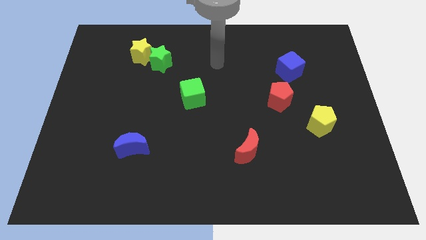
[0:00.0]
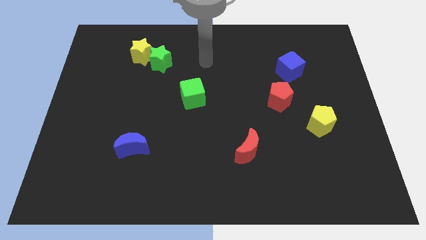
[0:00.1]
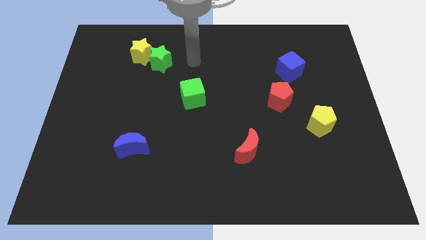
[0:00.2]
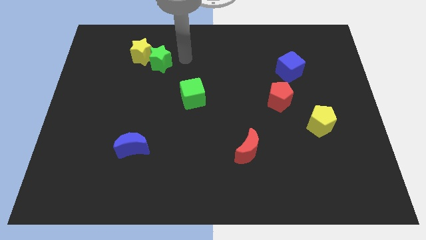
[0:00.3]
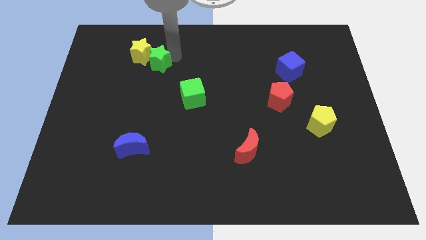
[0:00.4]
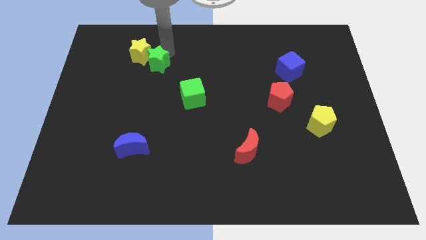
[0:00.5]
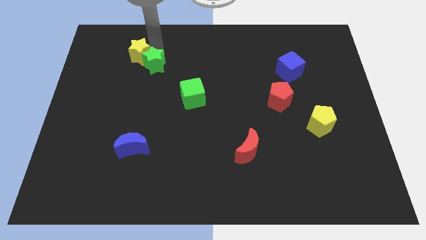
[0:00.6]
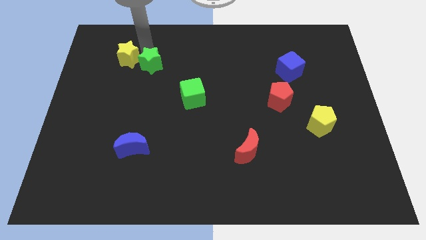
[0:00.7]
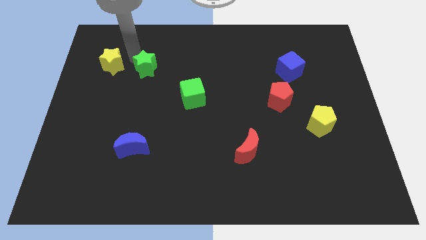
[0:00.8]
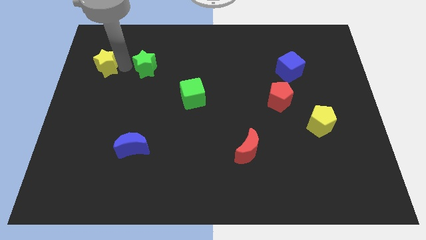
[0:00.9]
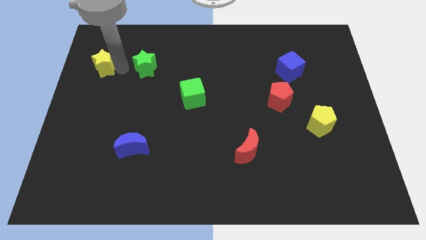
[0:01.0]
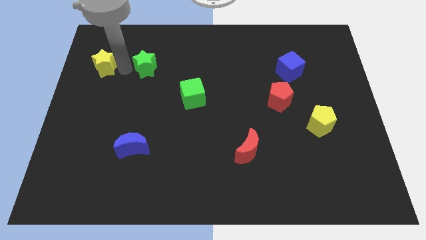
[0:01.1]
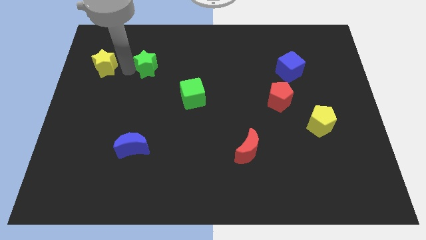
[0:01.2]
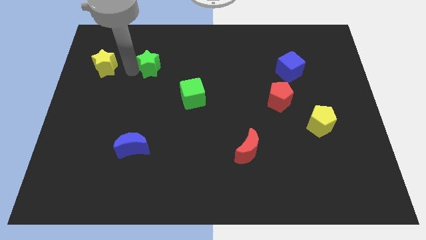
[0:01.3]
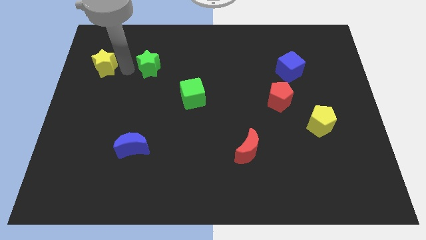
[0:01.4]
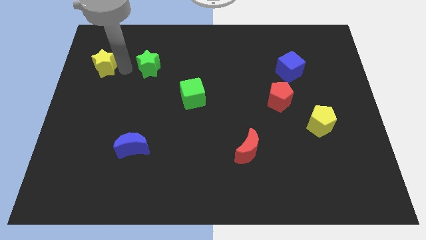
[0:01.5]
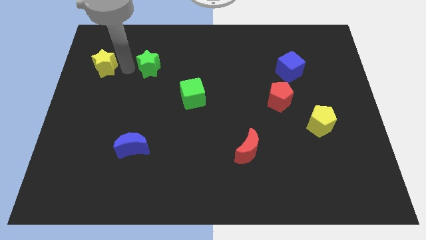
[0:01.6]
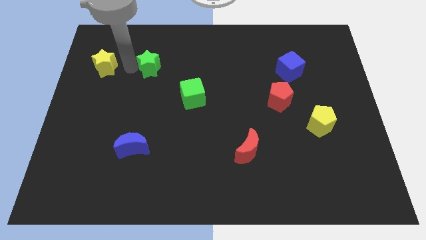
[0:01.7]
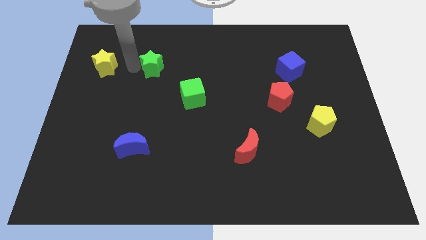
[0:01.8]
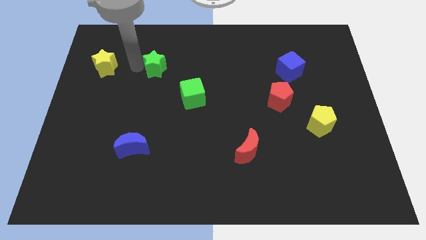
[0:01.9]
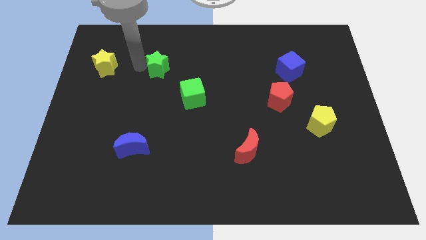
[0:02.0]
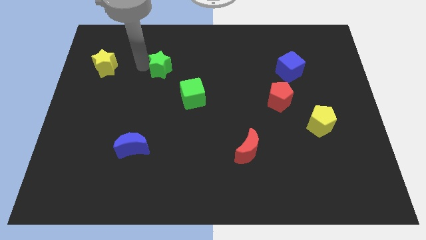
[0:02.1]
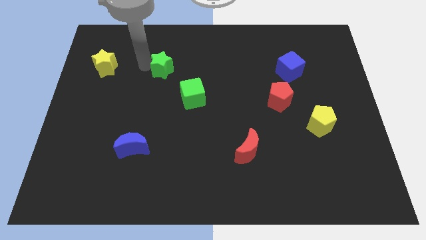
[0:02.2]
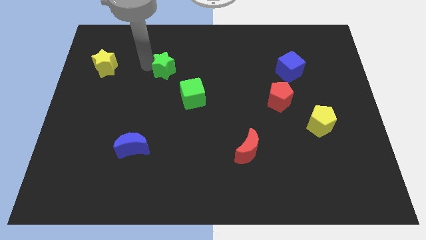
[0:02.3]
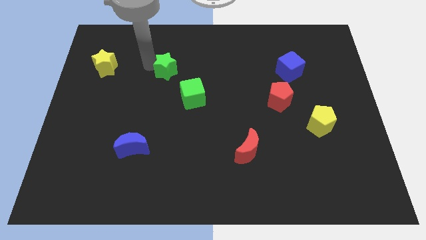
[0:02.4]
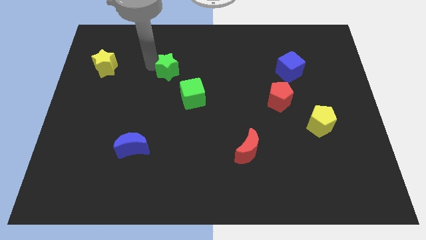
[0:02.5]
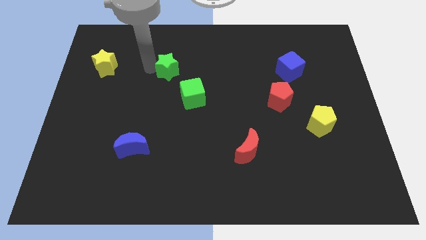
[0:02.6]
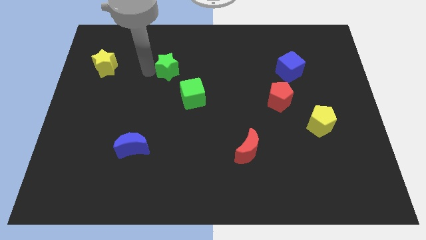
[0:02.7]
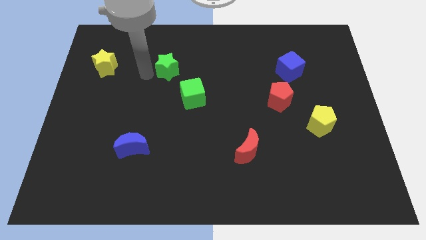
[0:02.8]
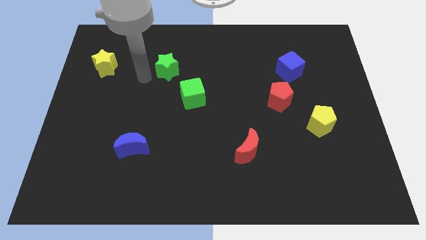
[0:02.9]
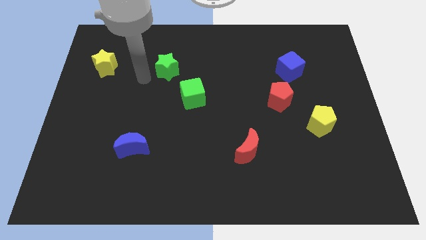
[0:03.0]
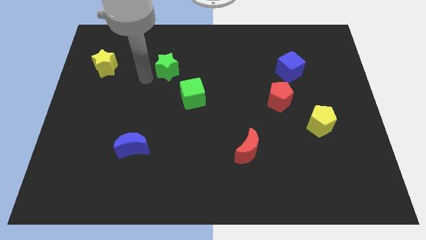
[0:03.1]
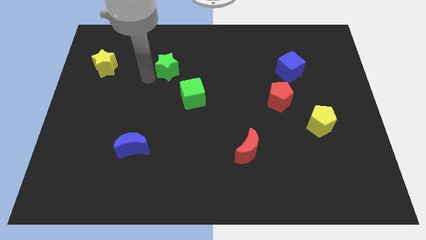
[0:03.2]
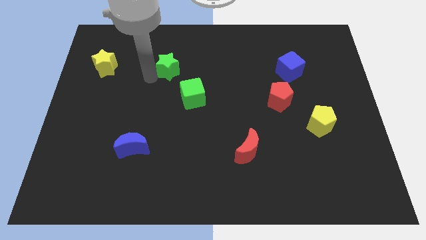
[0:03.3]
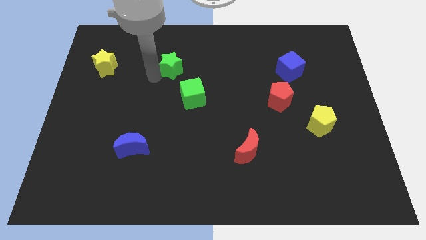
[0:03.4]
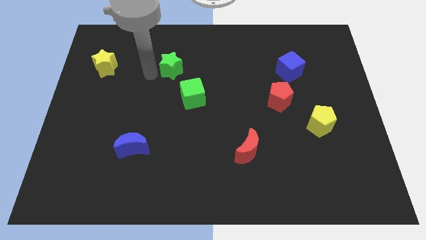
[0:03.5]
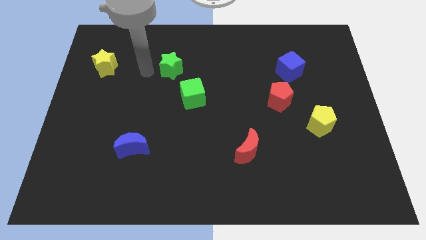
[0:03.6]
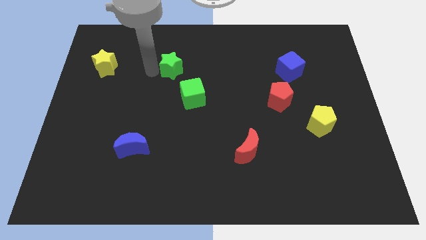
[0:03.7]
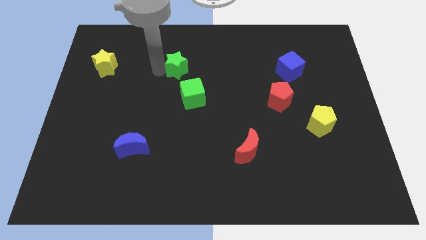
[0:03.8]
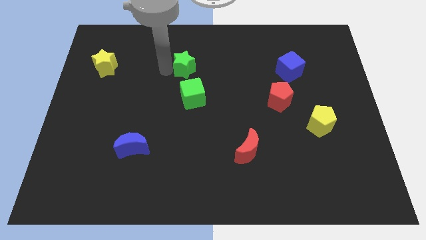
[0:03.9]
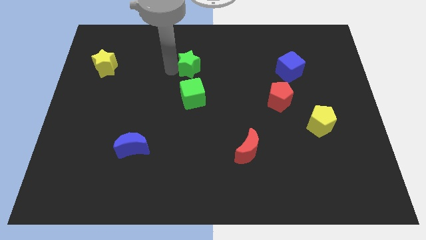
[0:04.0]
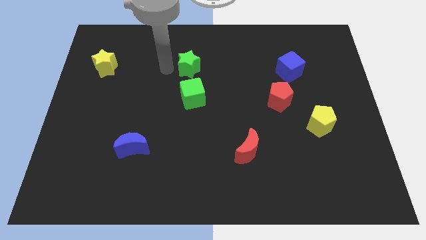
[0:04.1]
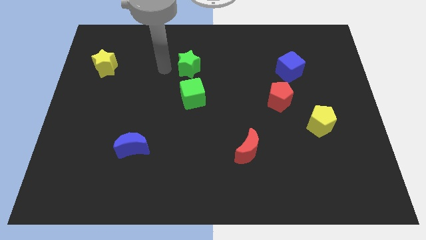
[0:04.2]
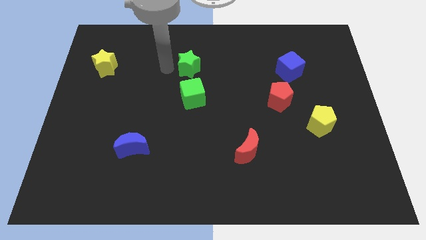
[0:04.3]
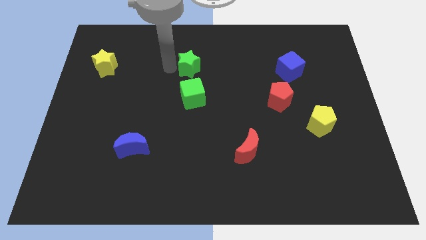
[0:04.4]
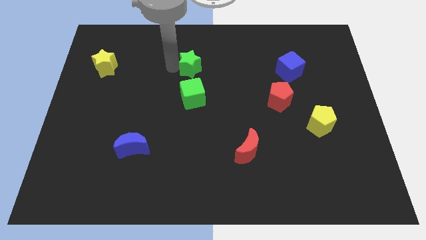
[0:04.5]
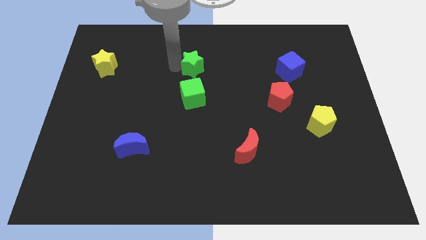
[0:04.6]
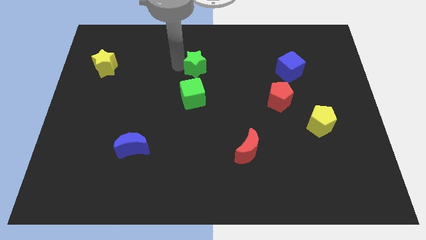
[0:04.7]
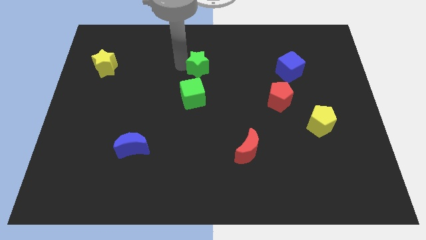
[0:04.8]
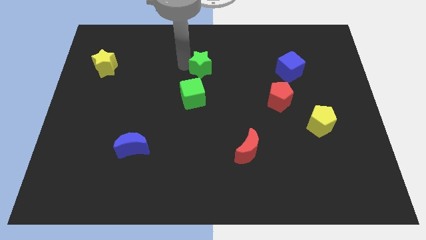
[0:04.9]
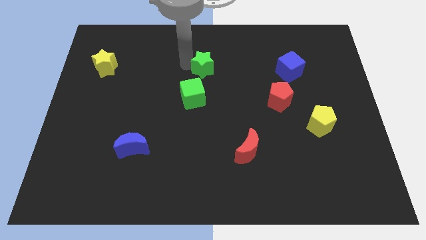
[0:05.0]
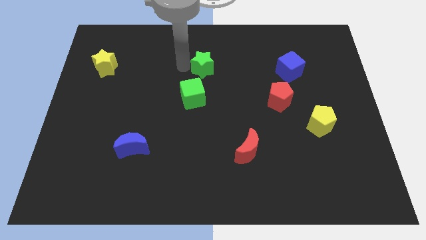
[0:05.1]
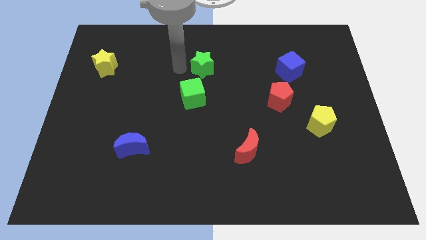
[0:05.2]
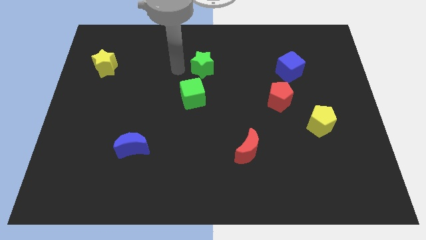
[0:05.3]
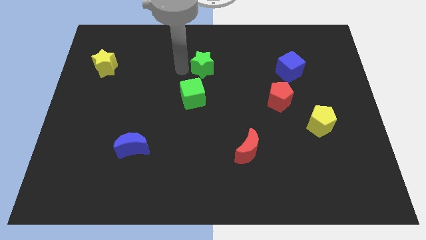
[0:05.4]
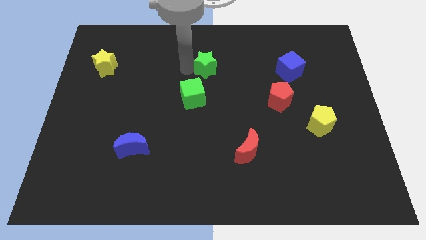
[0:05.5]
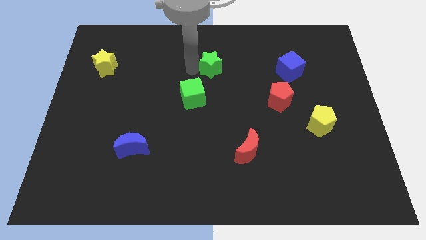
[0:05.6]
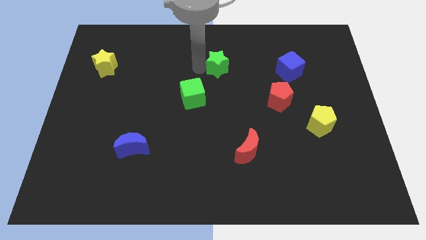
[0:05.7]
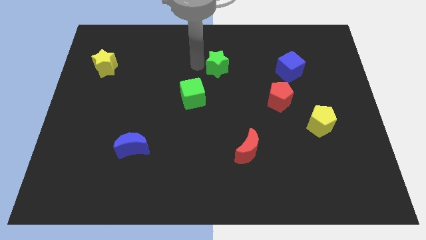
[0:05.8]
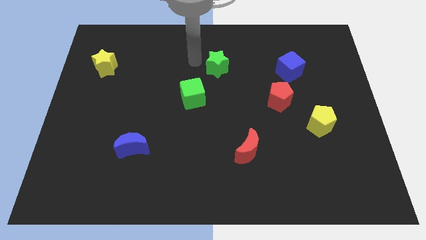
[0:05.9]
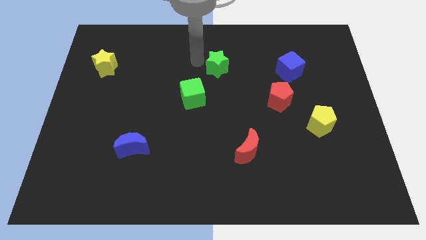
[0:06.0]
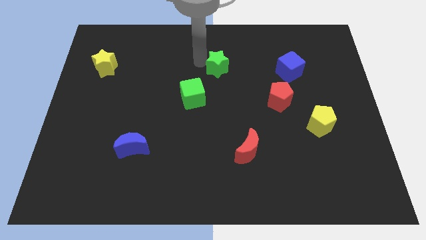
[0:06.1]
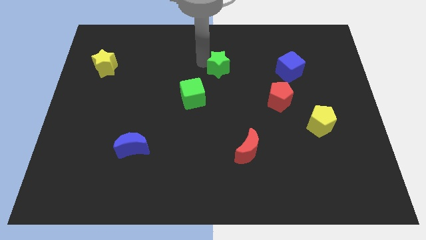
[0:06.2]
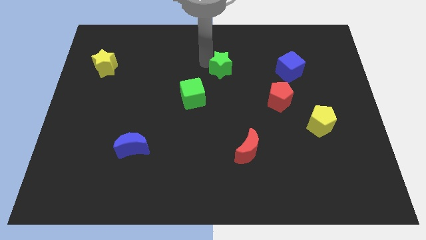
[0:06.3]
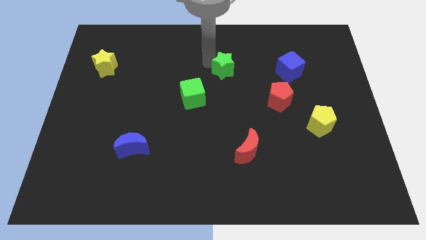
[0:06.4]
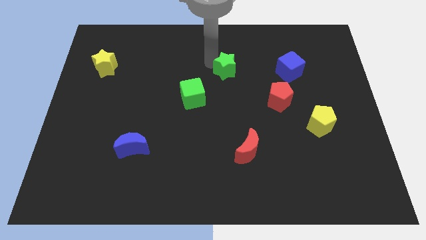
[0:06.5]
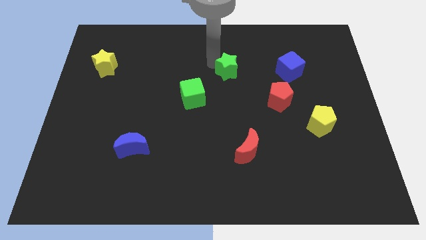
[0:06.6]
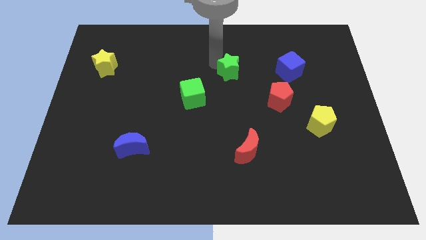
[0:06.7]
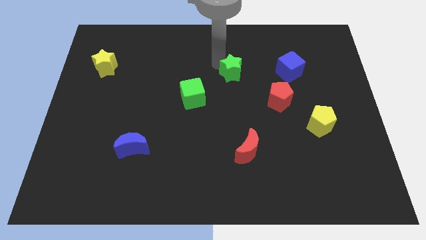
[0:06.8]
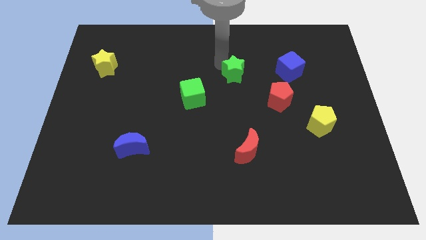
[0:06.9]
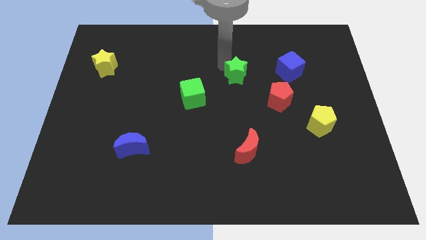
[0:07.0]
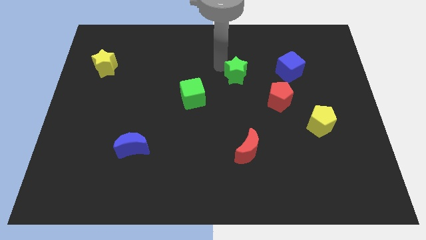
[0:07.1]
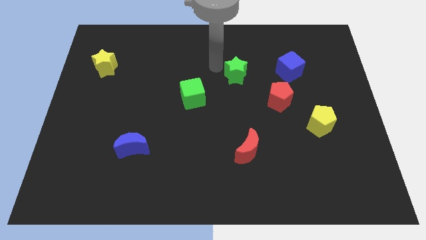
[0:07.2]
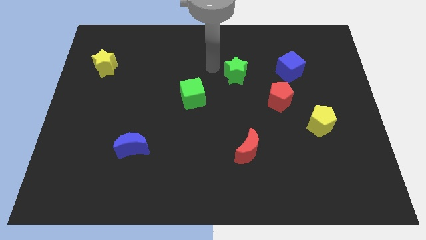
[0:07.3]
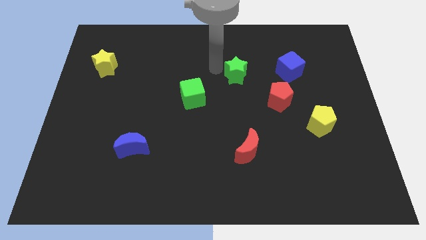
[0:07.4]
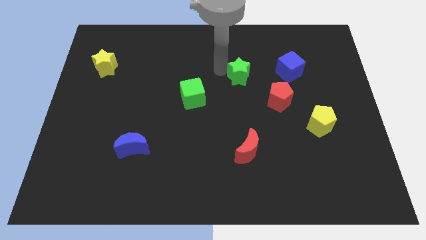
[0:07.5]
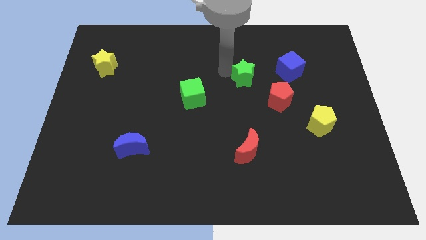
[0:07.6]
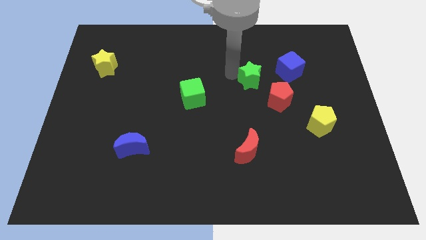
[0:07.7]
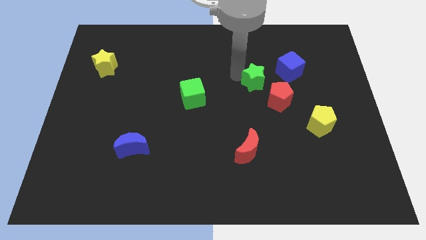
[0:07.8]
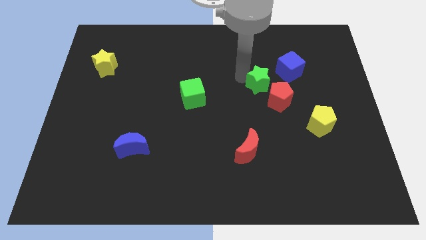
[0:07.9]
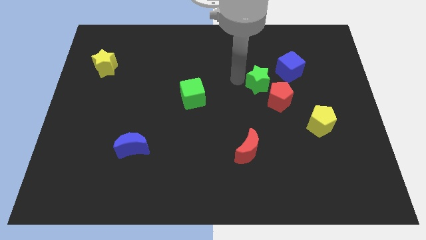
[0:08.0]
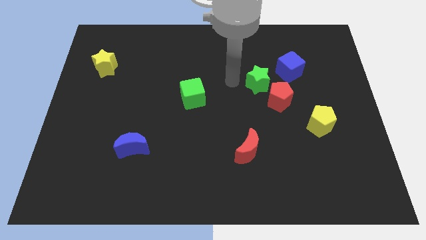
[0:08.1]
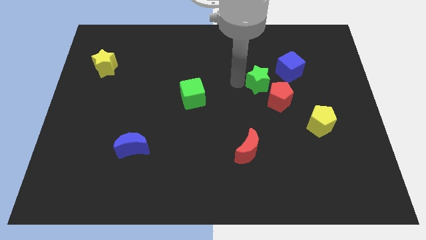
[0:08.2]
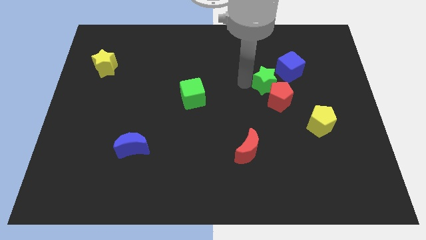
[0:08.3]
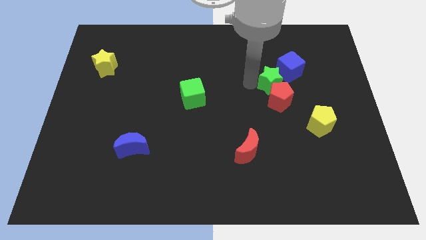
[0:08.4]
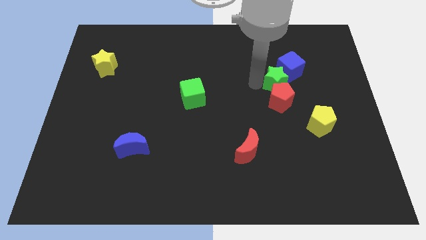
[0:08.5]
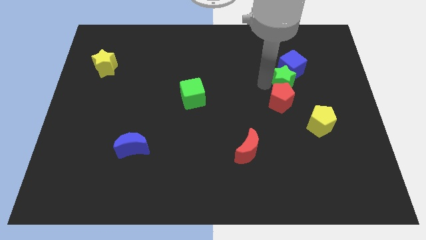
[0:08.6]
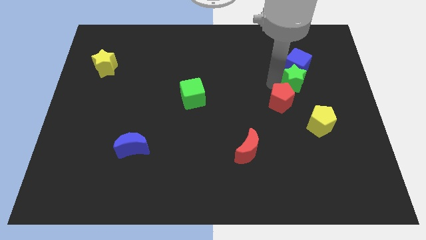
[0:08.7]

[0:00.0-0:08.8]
put the green star to the bottom right side of the blue cube
